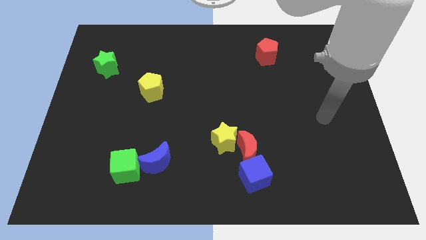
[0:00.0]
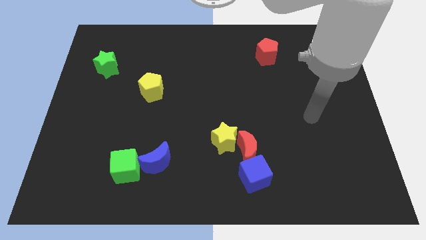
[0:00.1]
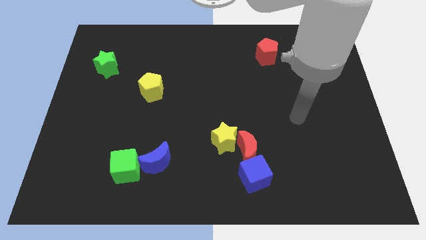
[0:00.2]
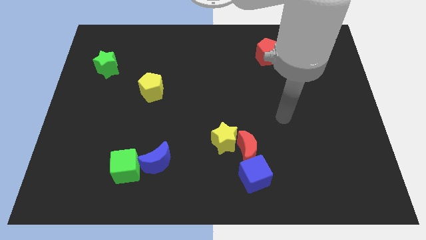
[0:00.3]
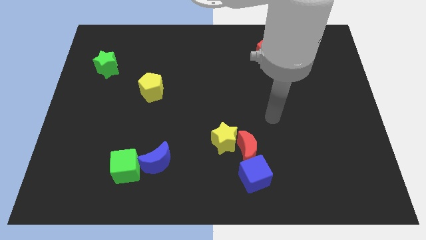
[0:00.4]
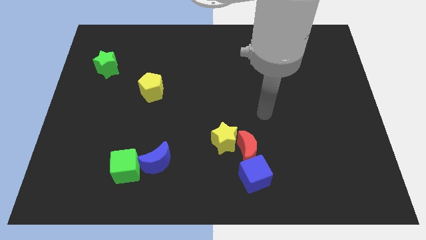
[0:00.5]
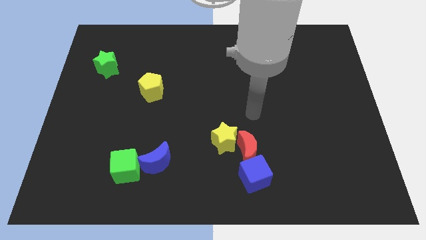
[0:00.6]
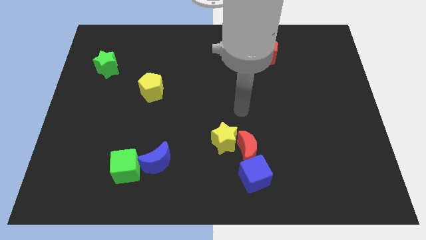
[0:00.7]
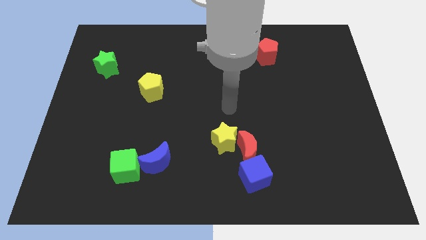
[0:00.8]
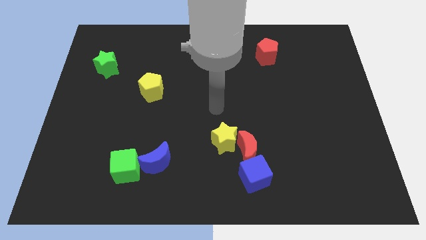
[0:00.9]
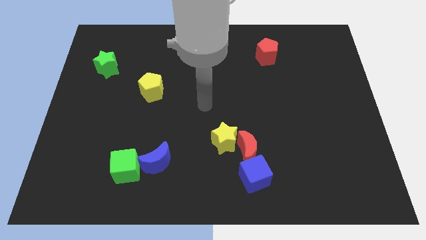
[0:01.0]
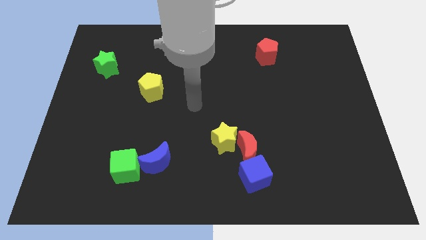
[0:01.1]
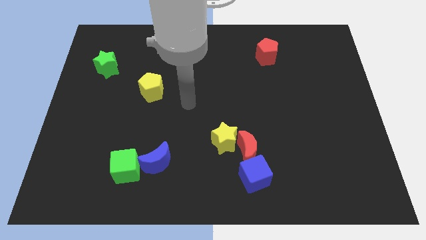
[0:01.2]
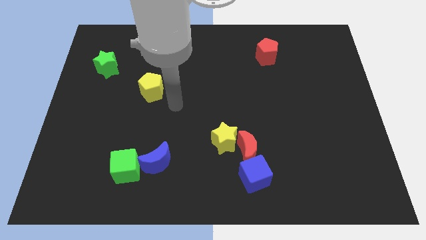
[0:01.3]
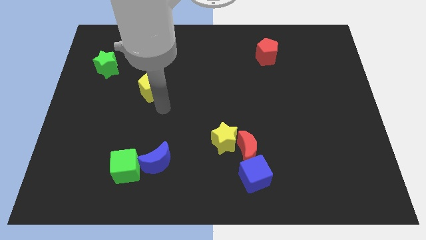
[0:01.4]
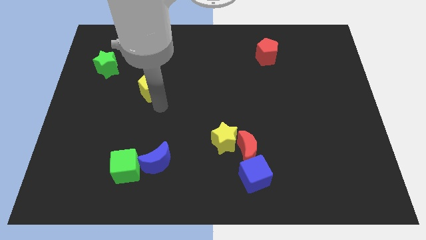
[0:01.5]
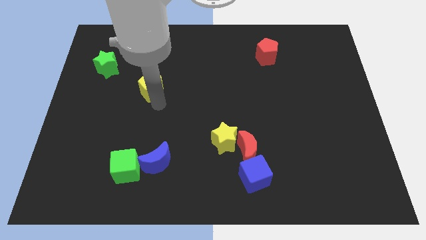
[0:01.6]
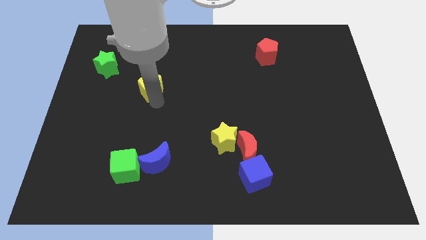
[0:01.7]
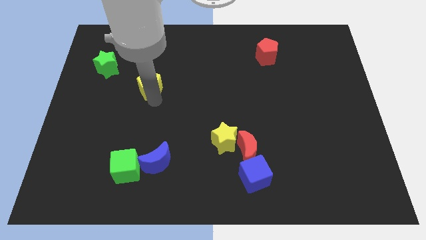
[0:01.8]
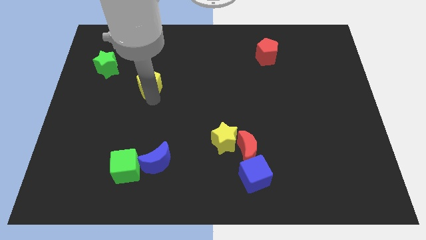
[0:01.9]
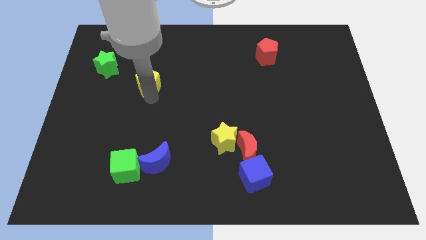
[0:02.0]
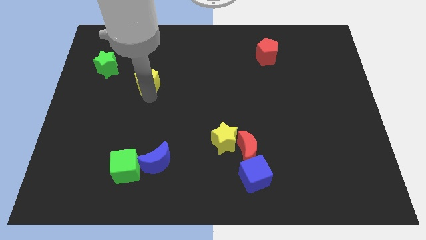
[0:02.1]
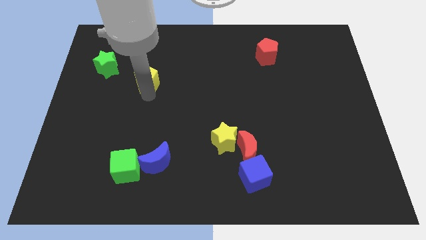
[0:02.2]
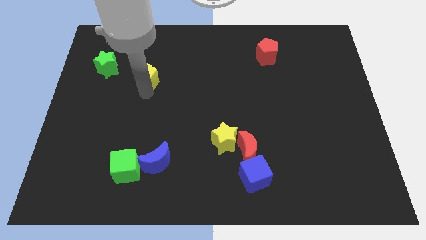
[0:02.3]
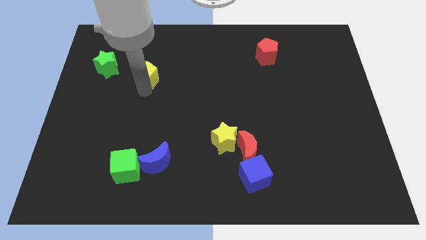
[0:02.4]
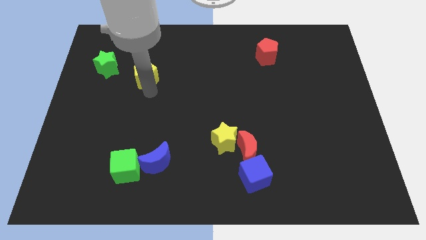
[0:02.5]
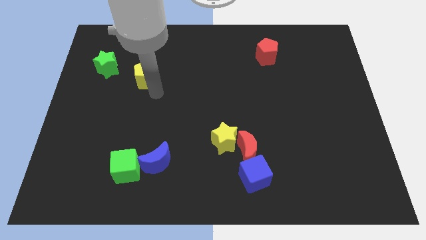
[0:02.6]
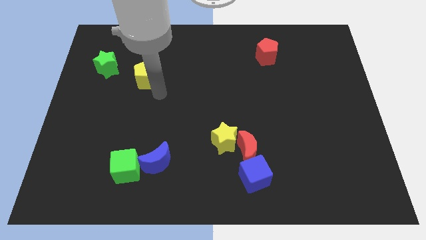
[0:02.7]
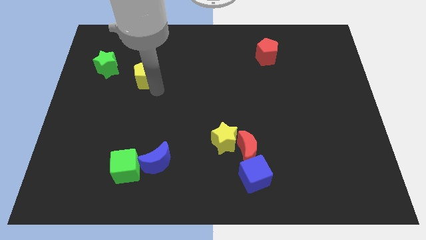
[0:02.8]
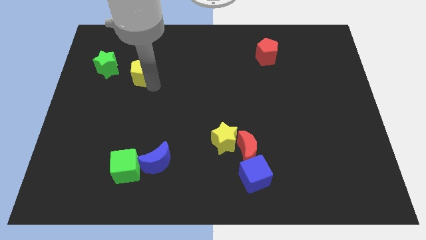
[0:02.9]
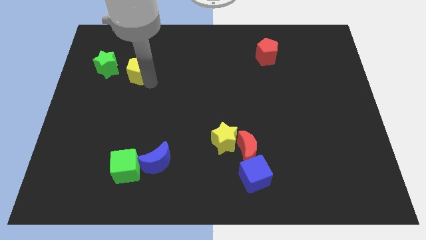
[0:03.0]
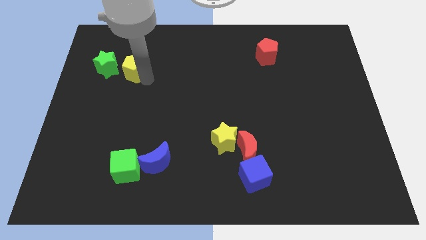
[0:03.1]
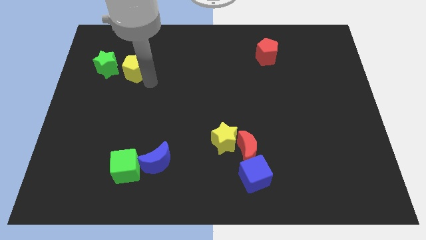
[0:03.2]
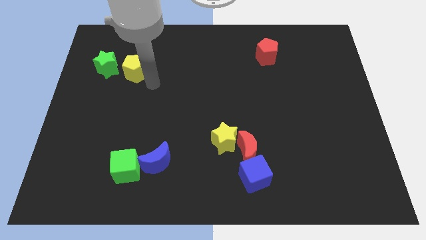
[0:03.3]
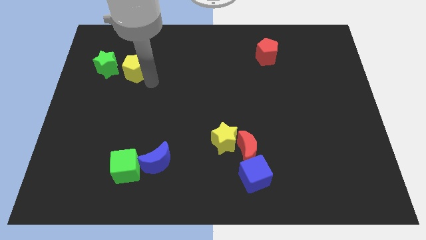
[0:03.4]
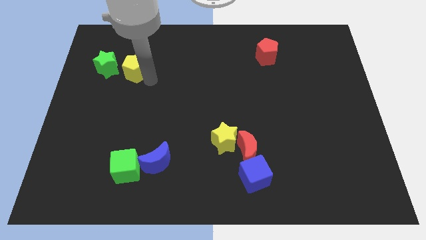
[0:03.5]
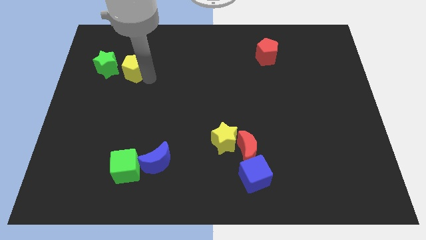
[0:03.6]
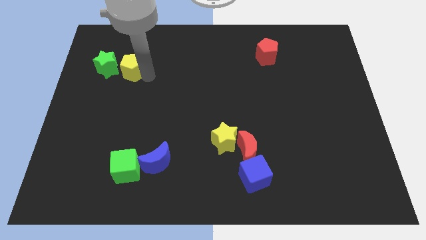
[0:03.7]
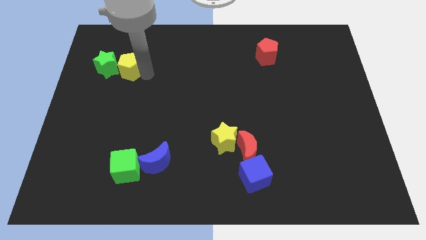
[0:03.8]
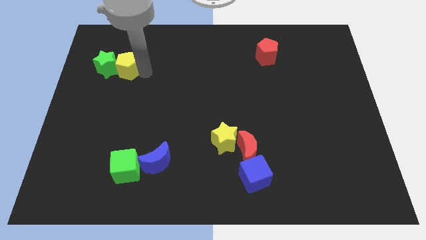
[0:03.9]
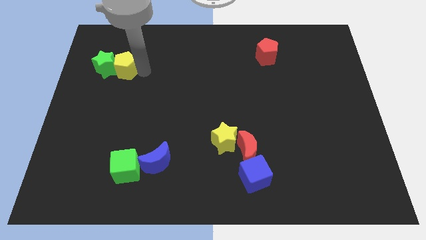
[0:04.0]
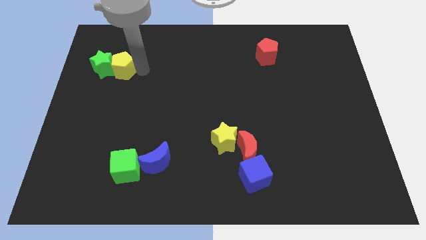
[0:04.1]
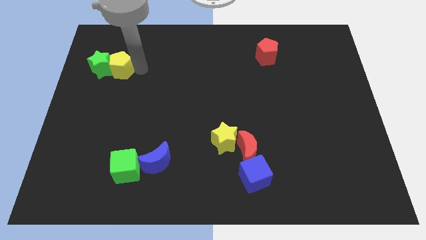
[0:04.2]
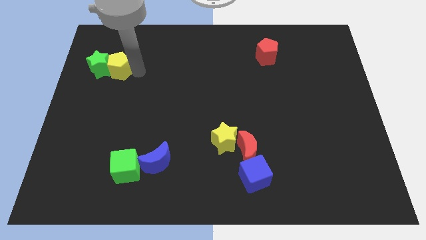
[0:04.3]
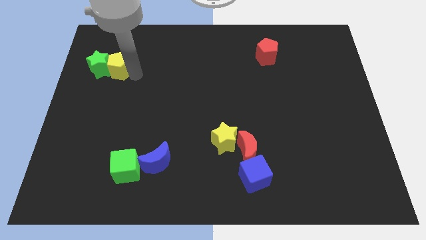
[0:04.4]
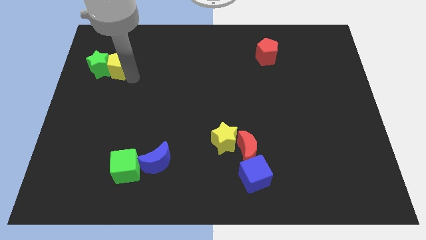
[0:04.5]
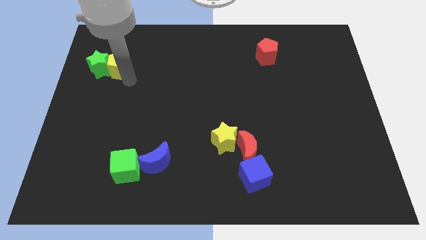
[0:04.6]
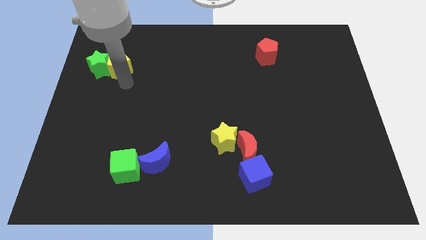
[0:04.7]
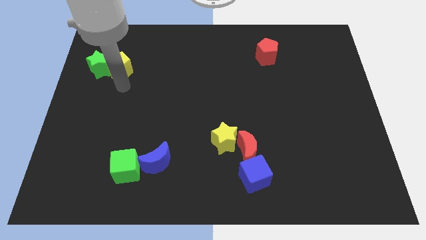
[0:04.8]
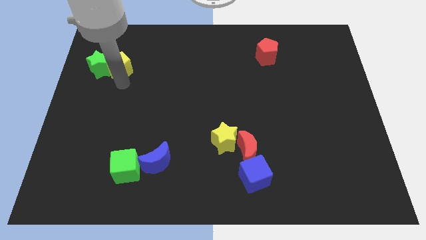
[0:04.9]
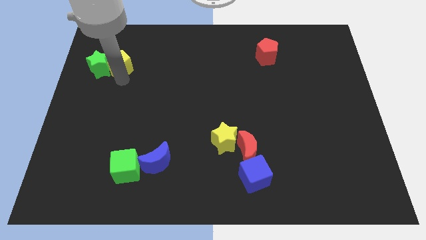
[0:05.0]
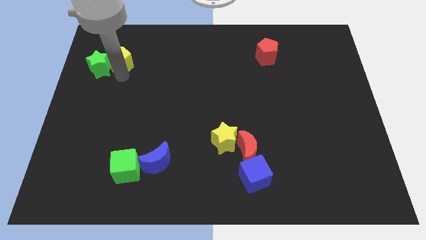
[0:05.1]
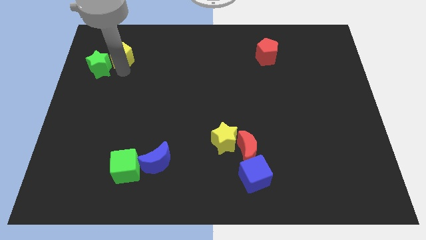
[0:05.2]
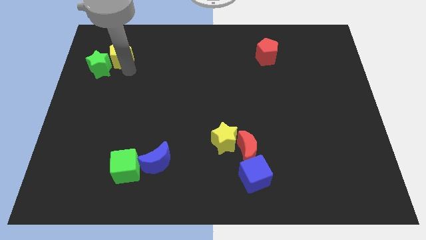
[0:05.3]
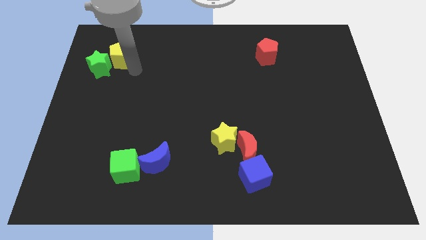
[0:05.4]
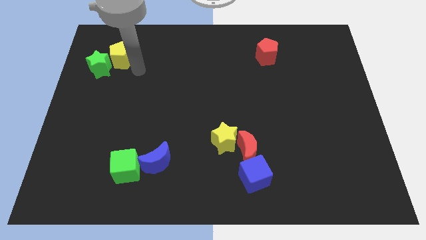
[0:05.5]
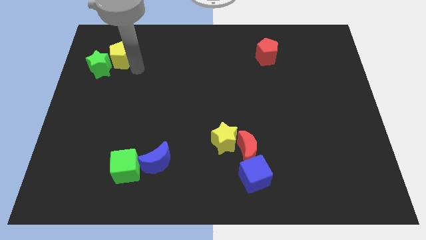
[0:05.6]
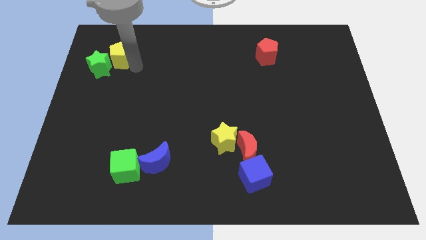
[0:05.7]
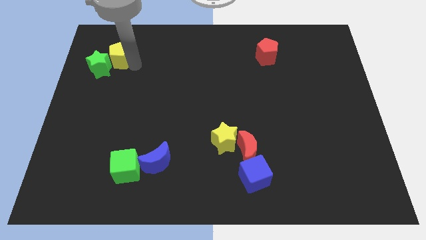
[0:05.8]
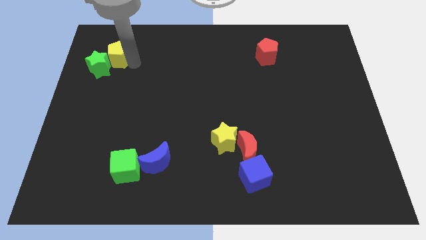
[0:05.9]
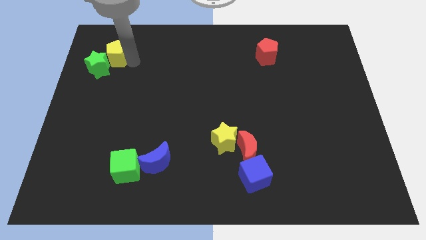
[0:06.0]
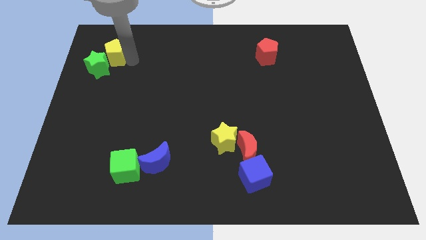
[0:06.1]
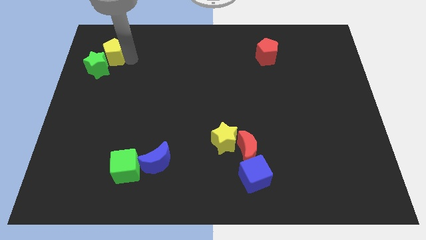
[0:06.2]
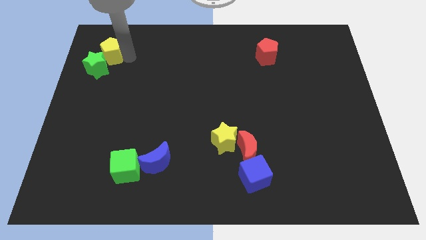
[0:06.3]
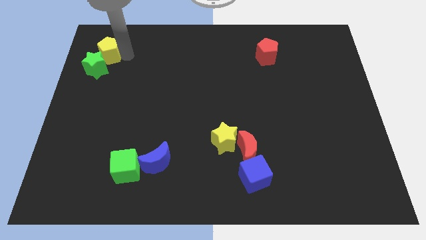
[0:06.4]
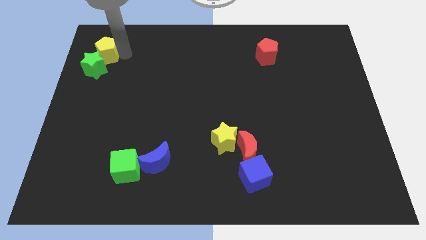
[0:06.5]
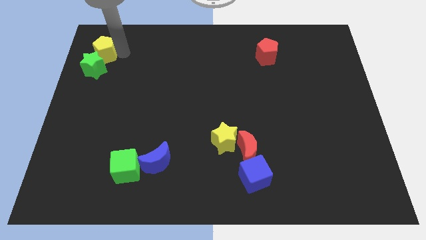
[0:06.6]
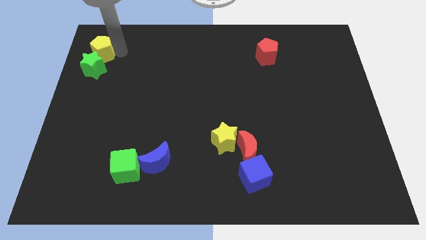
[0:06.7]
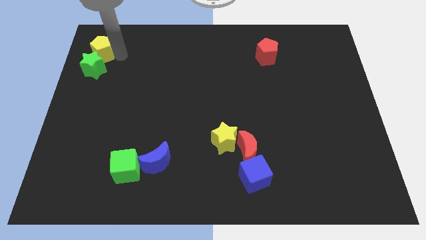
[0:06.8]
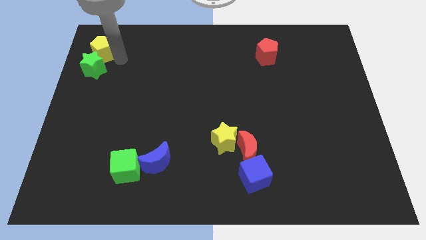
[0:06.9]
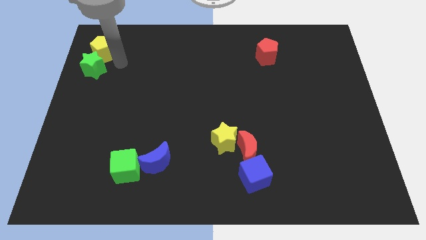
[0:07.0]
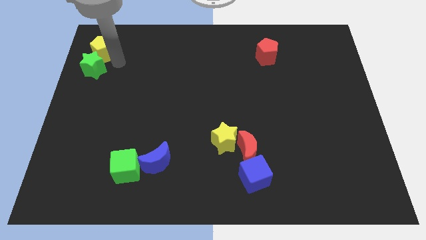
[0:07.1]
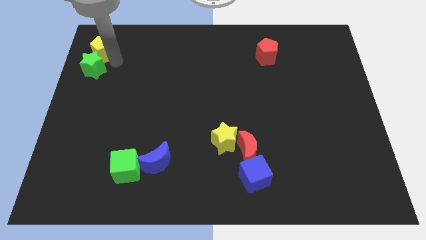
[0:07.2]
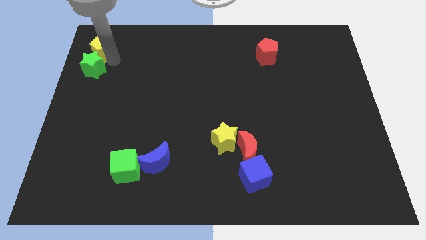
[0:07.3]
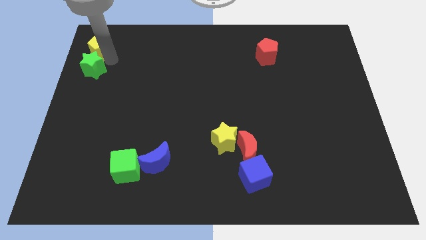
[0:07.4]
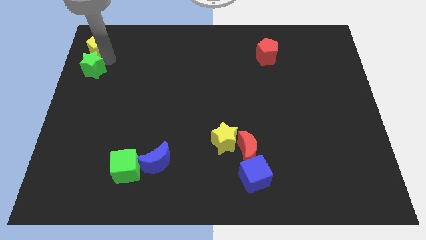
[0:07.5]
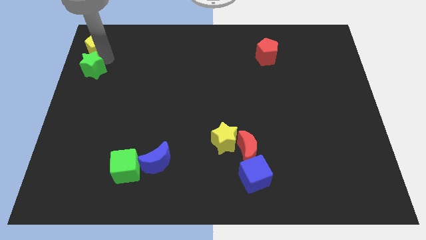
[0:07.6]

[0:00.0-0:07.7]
move the yellow pentagon to the upper left corner
